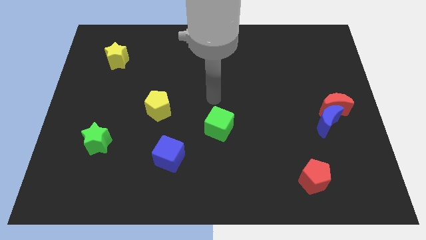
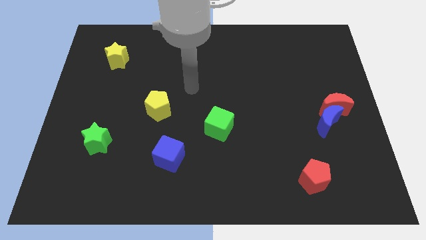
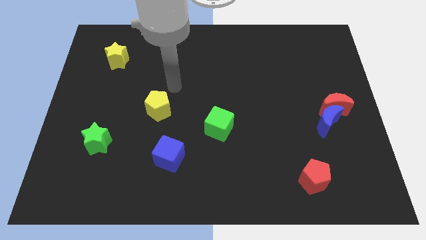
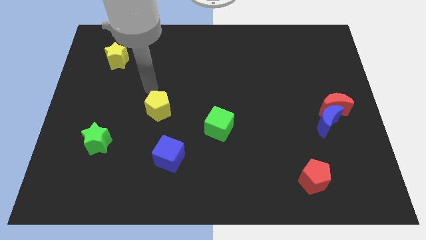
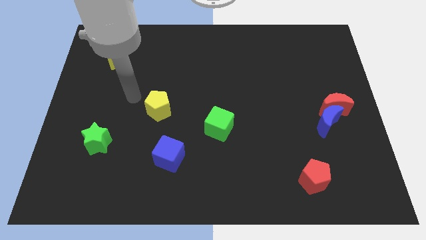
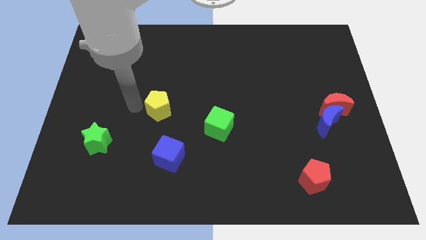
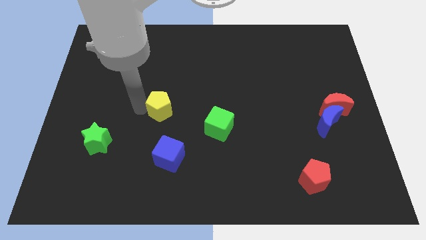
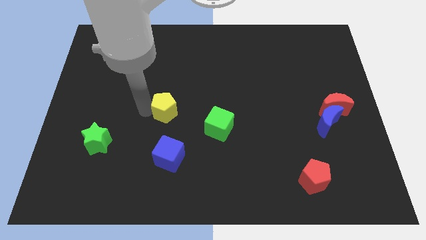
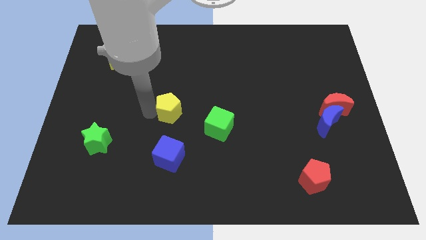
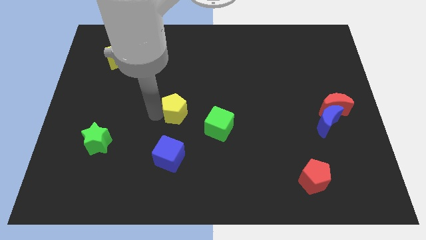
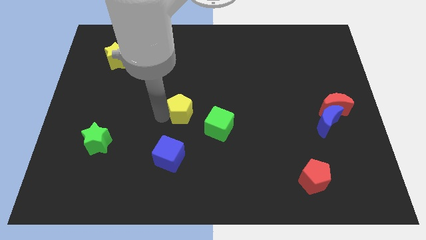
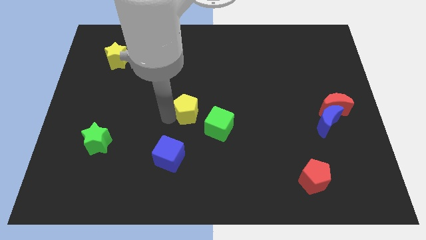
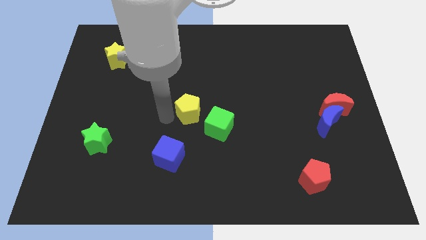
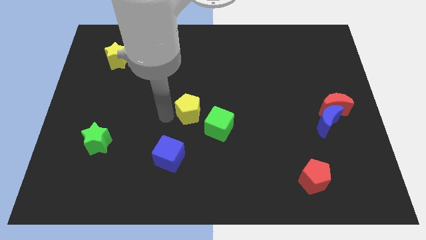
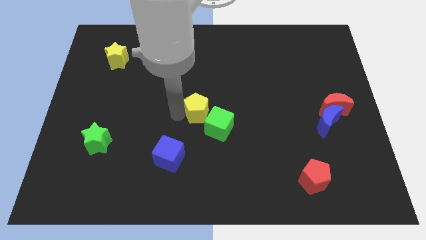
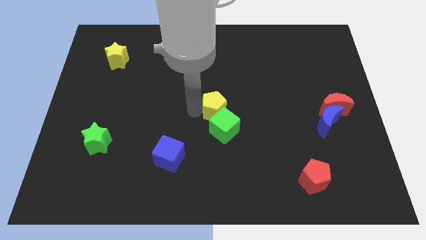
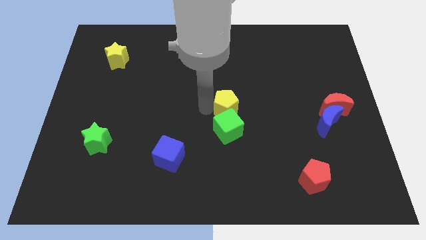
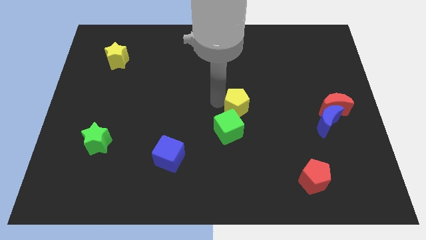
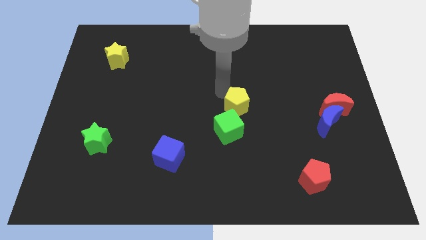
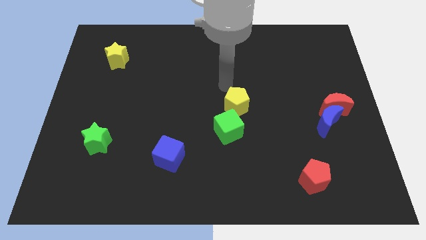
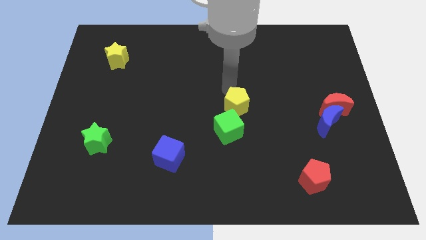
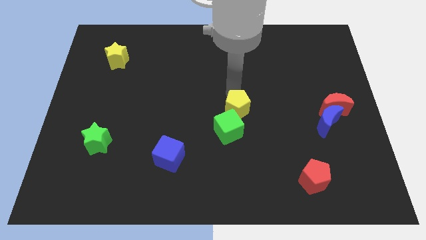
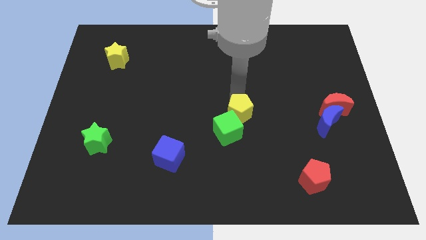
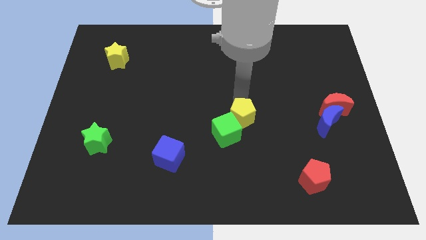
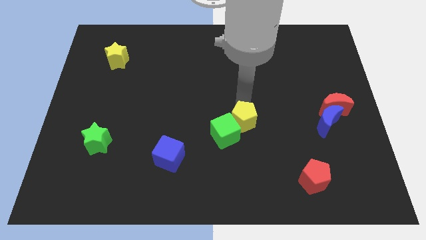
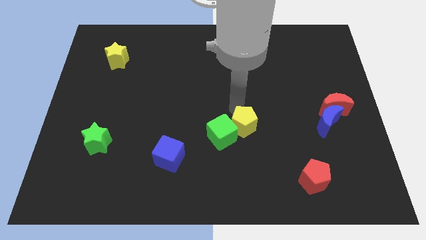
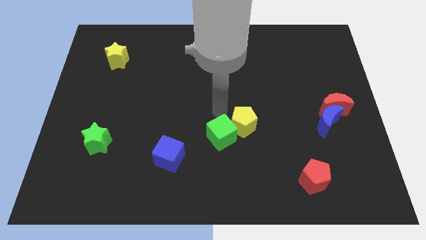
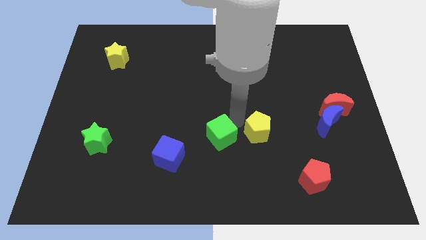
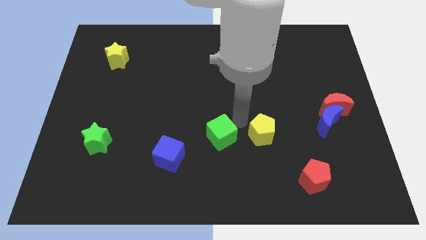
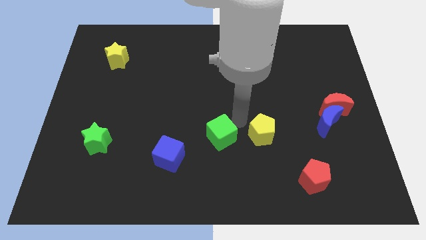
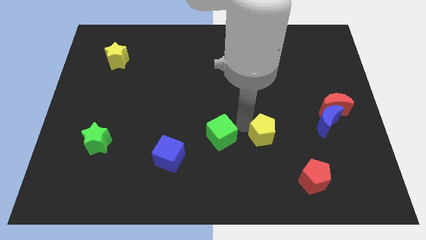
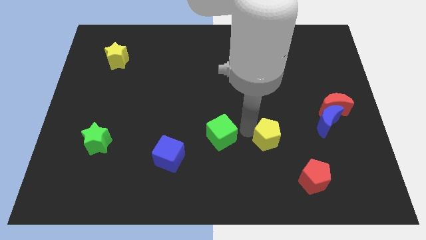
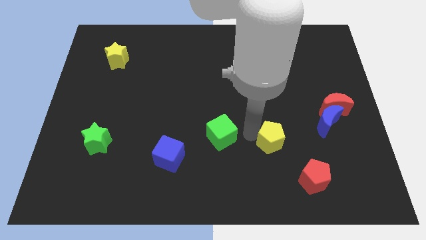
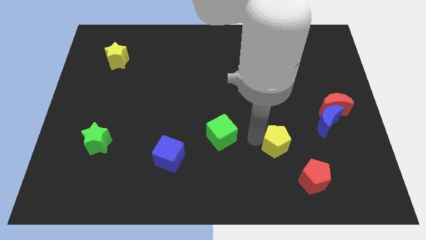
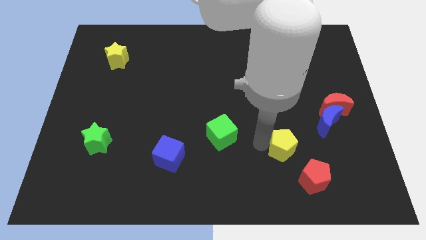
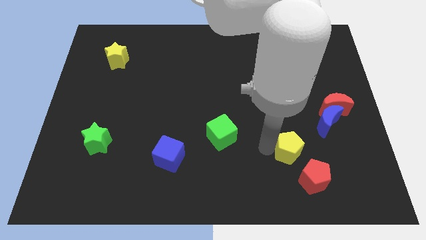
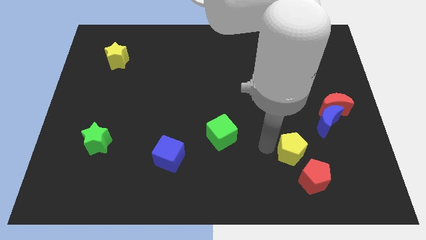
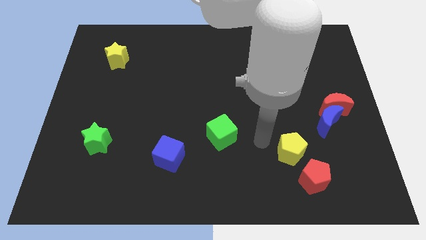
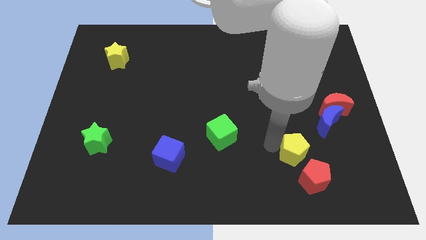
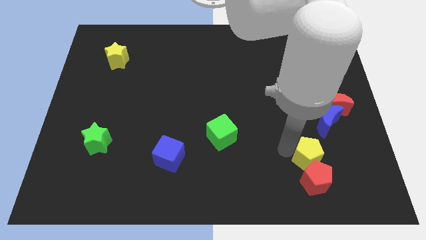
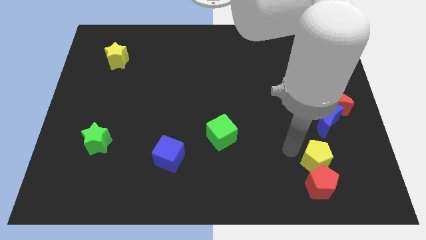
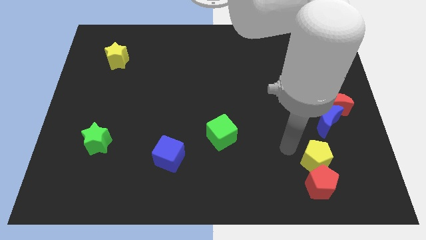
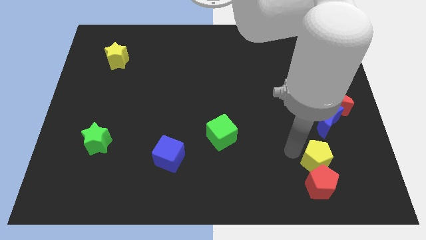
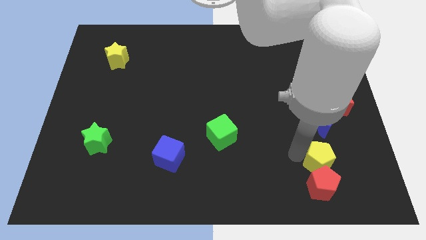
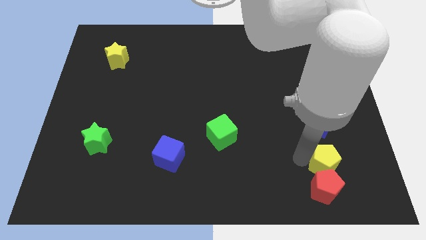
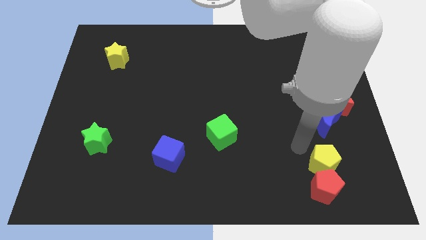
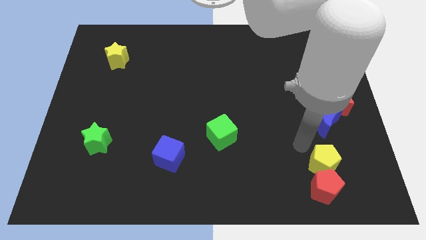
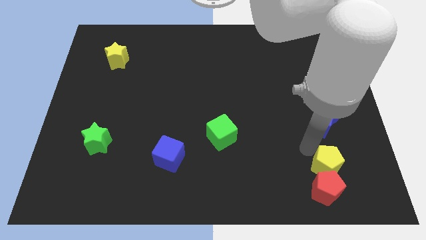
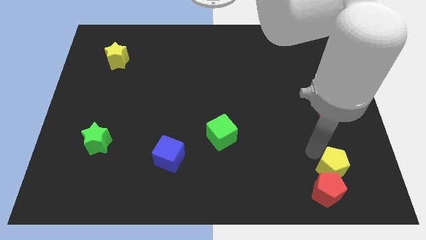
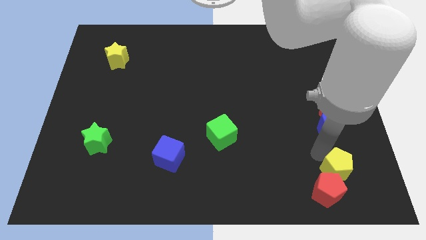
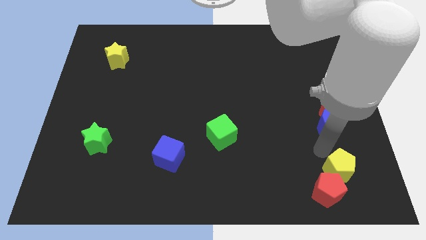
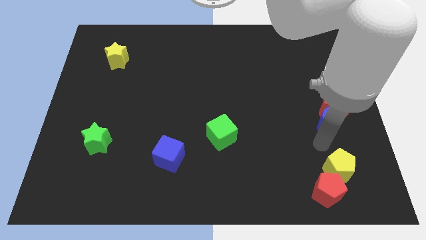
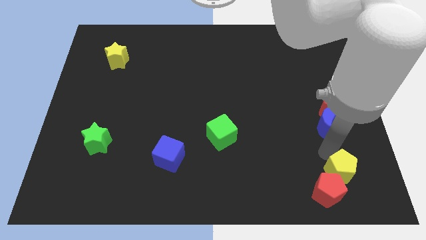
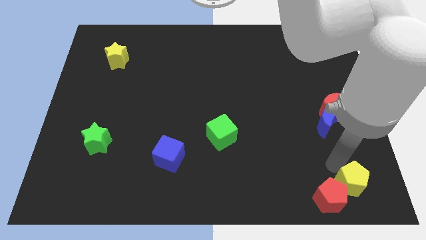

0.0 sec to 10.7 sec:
slide the yellow pentagon to the lower right corner

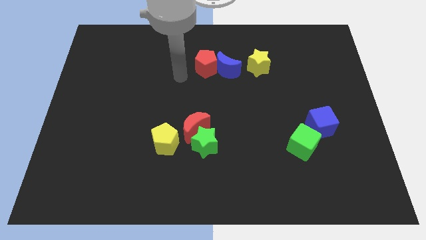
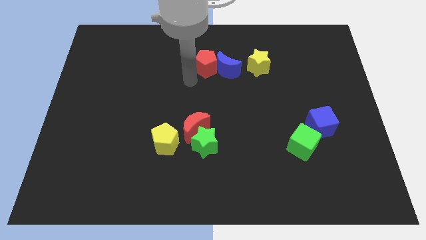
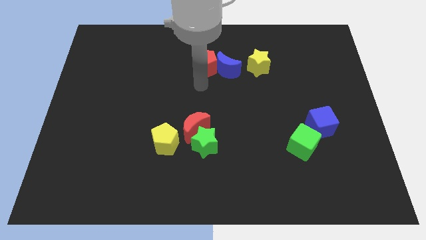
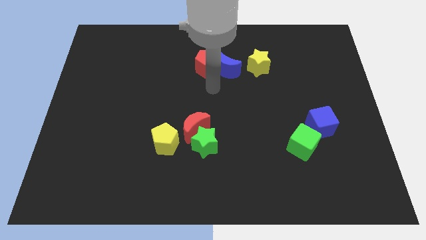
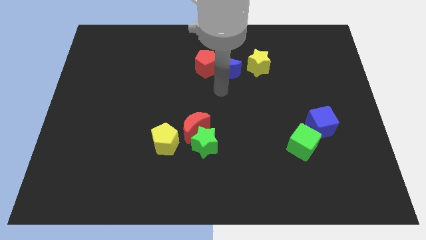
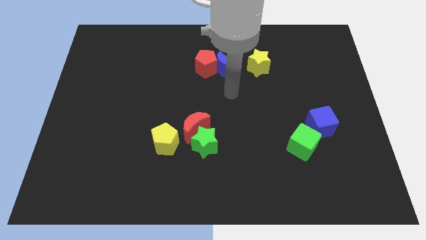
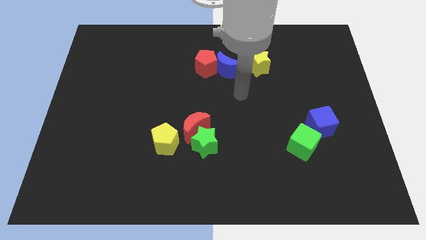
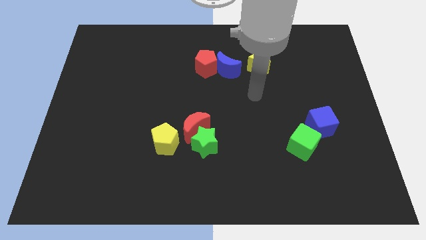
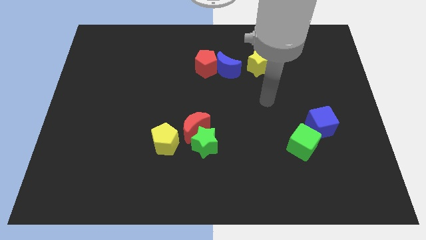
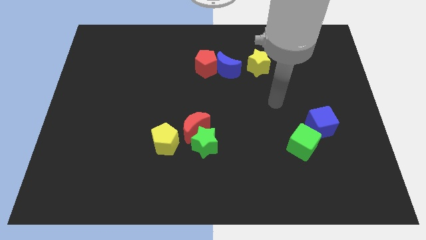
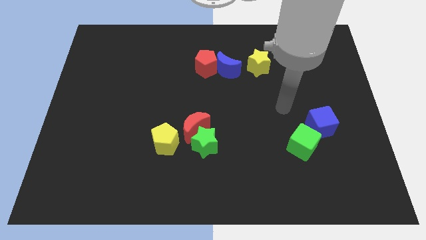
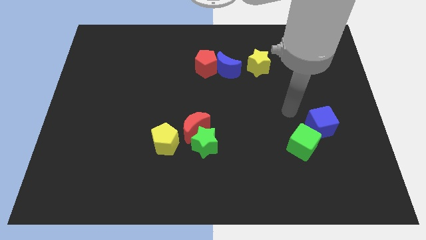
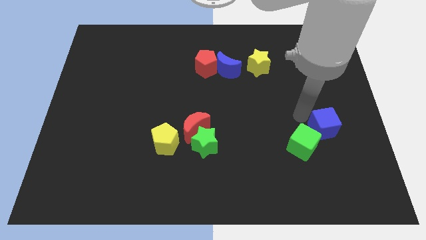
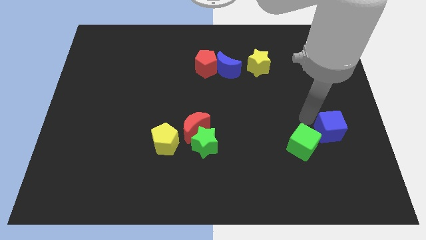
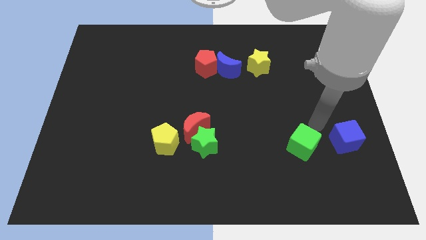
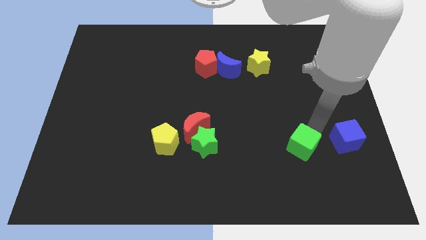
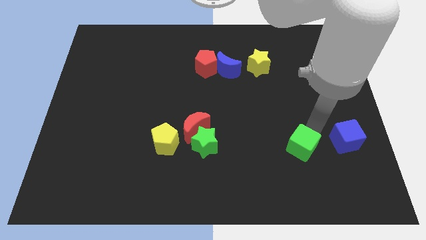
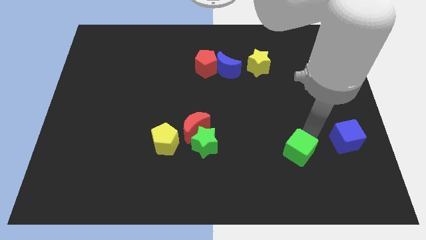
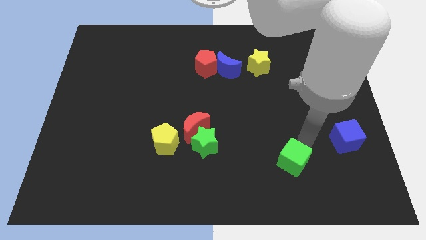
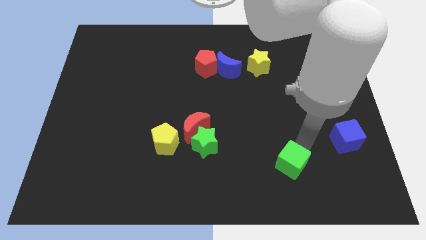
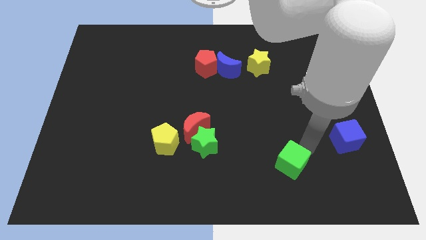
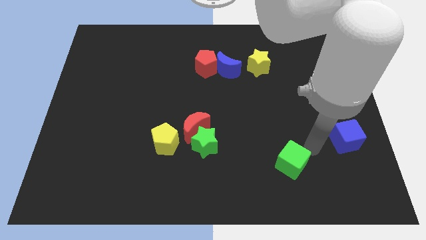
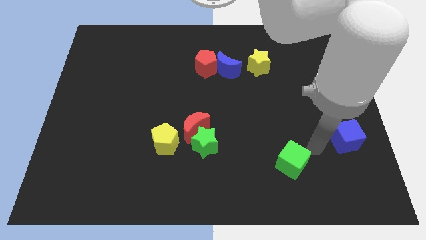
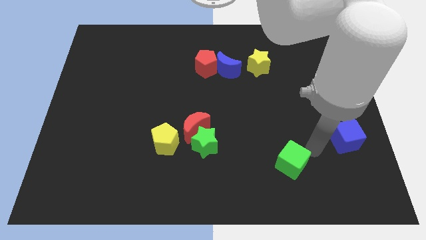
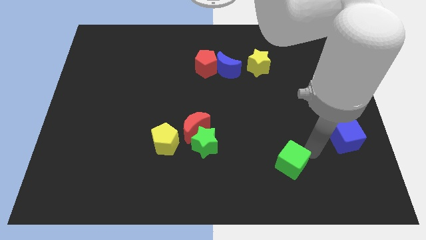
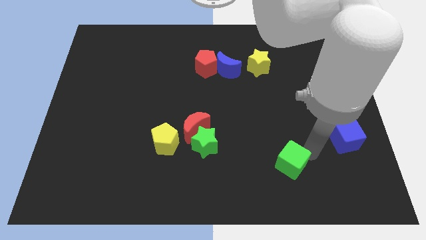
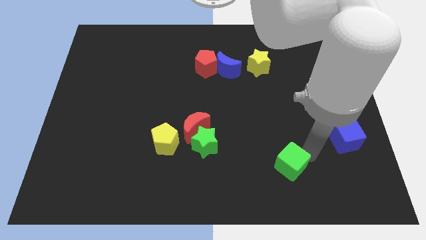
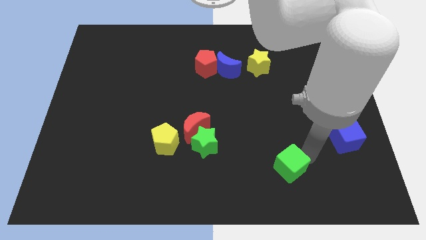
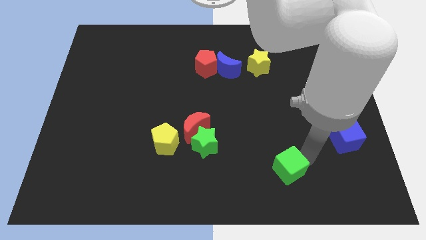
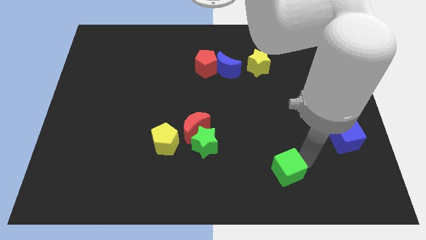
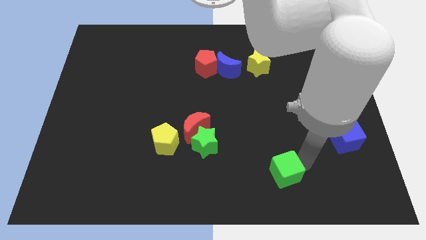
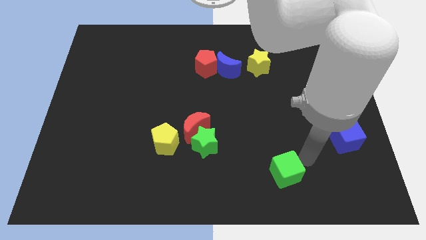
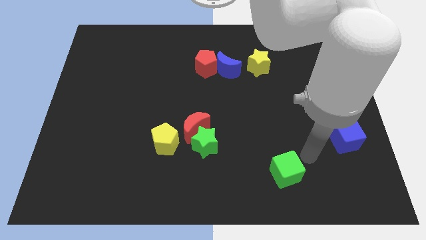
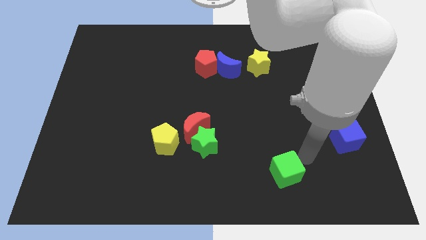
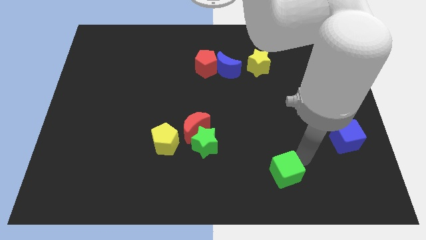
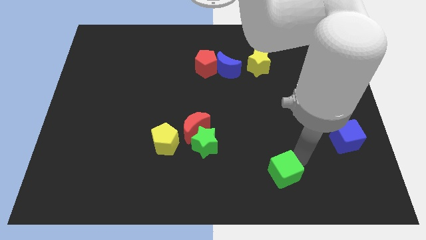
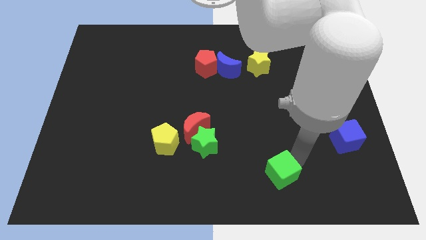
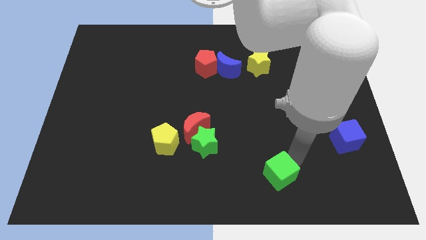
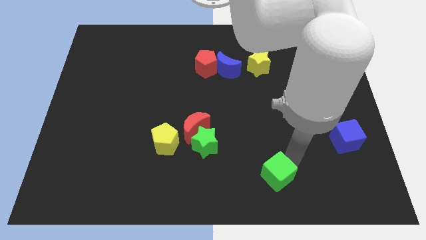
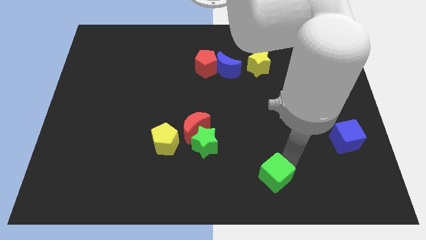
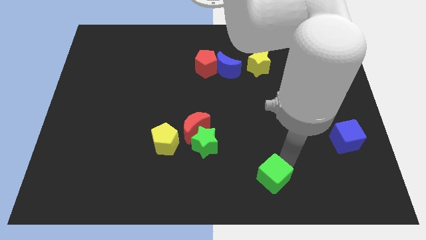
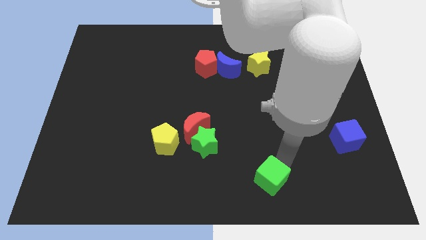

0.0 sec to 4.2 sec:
slide the green cube to the bottom
